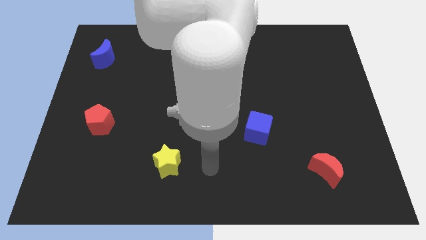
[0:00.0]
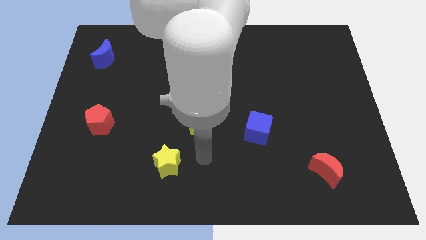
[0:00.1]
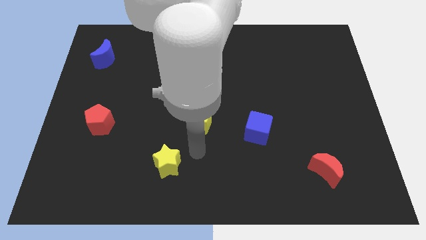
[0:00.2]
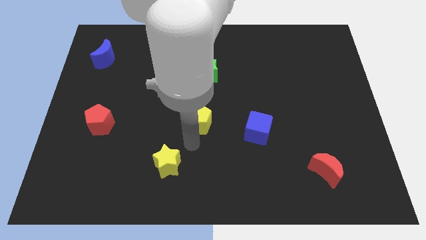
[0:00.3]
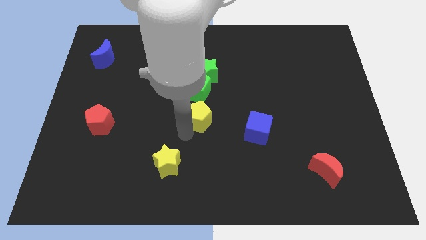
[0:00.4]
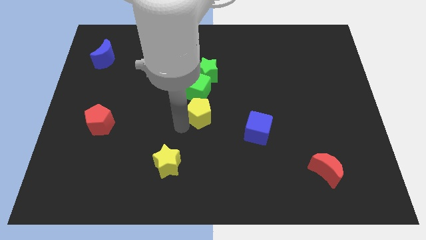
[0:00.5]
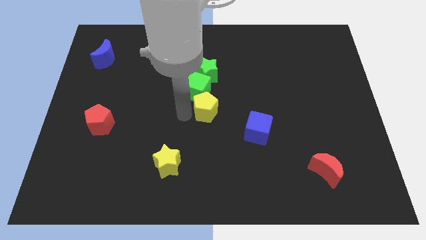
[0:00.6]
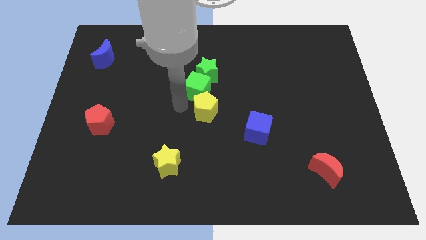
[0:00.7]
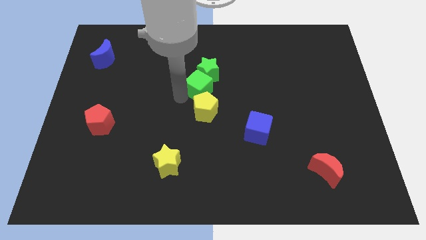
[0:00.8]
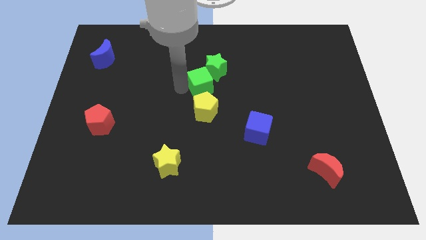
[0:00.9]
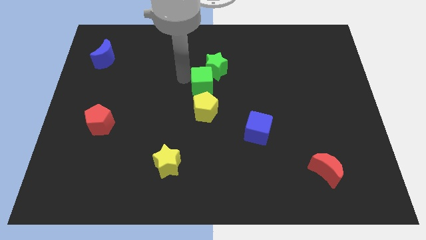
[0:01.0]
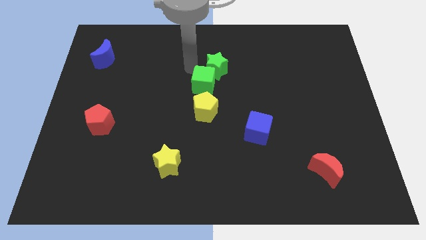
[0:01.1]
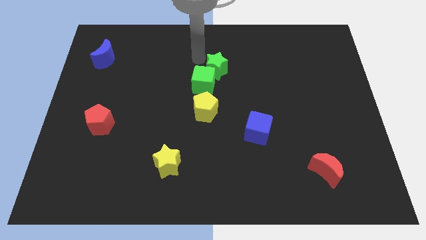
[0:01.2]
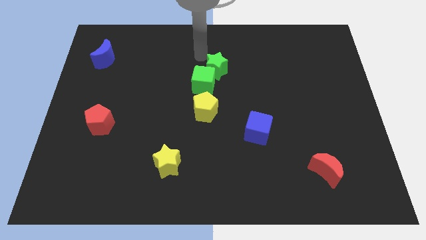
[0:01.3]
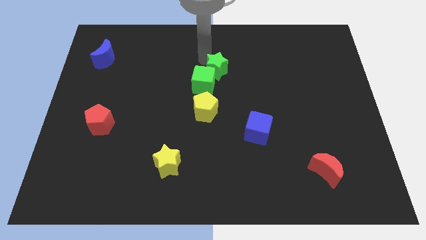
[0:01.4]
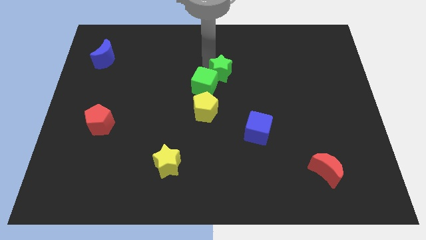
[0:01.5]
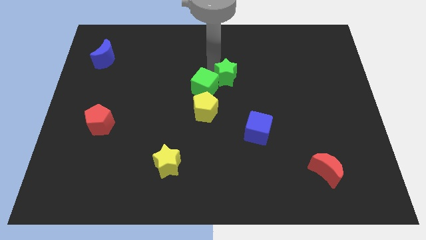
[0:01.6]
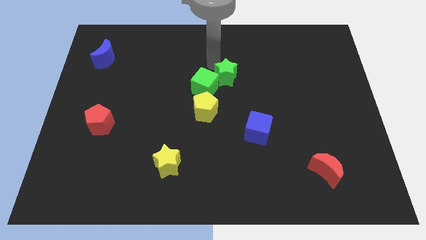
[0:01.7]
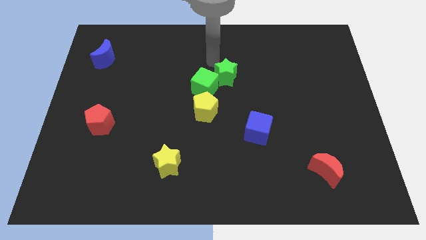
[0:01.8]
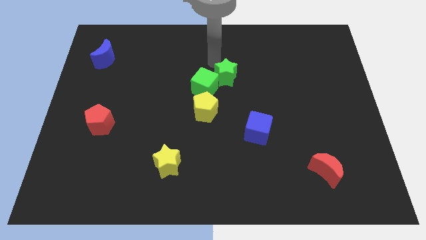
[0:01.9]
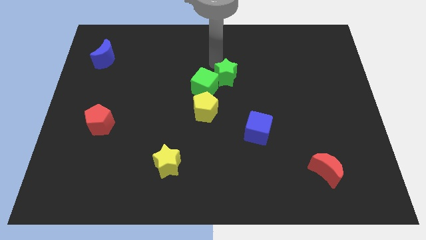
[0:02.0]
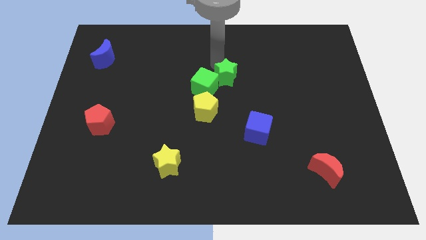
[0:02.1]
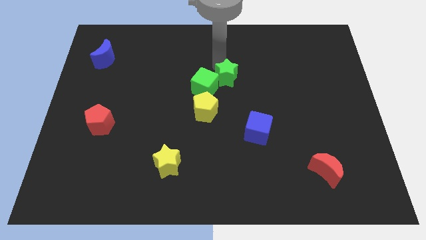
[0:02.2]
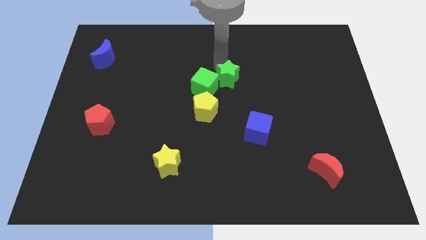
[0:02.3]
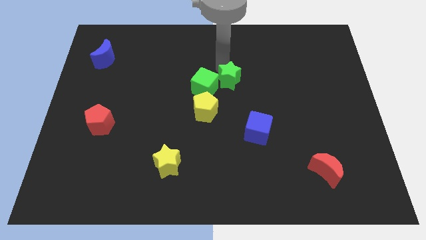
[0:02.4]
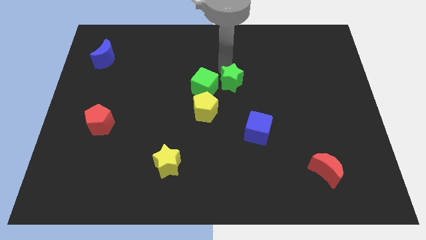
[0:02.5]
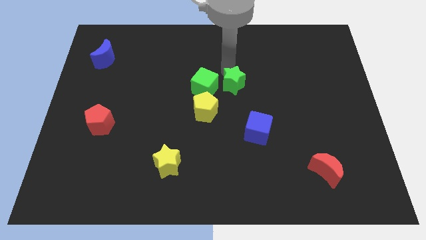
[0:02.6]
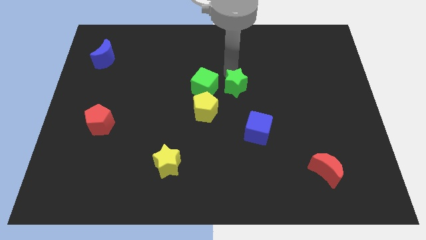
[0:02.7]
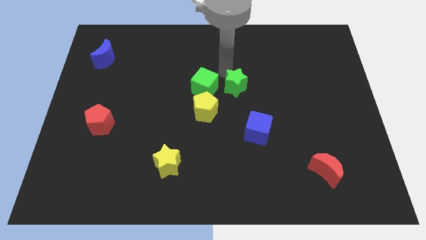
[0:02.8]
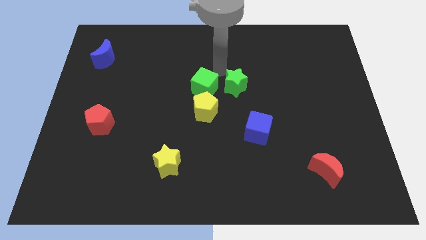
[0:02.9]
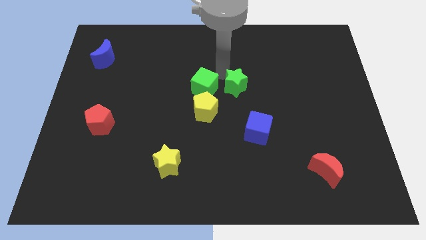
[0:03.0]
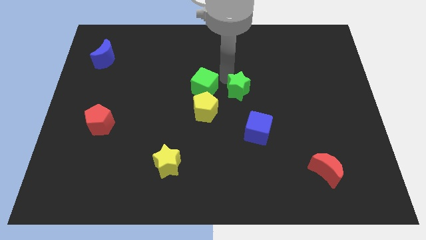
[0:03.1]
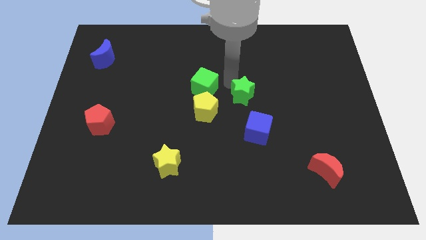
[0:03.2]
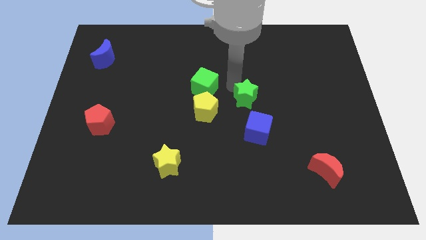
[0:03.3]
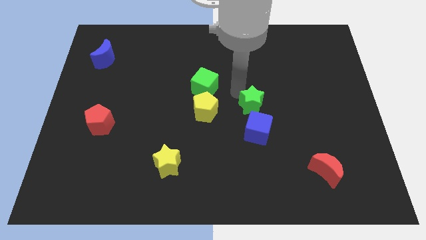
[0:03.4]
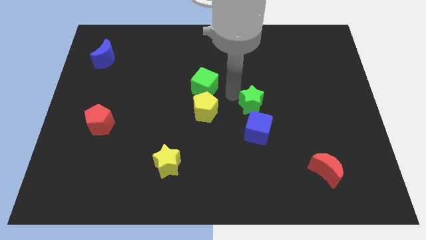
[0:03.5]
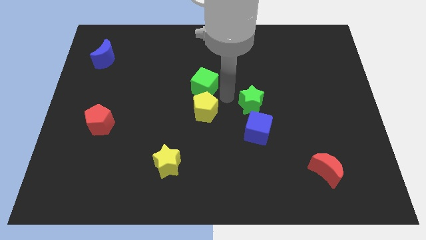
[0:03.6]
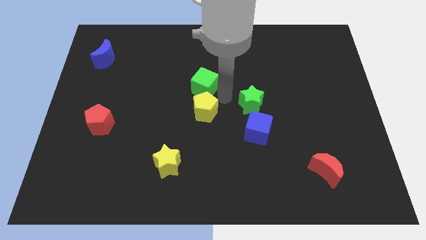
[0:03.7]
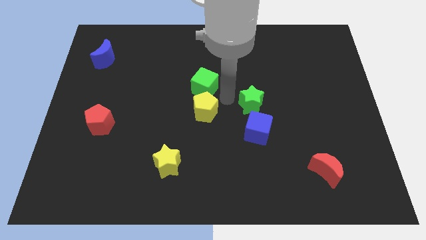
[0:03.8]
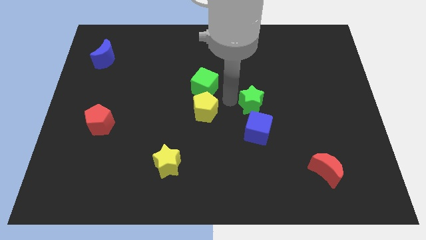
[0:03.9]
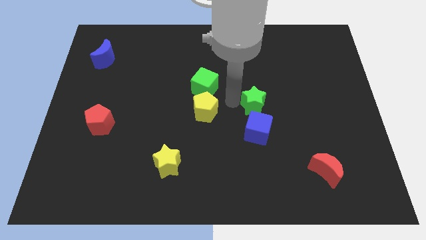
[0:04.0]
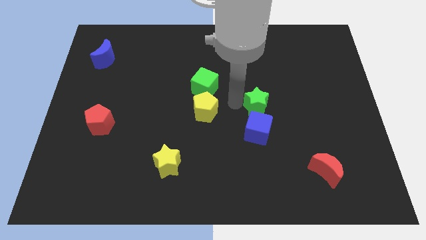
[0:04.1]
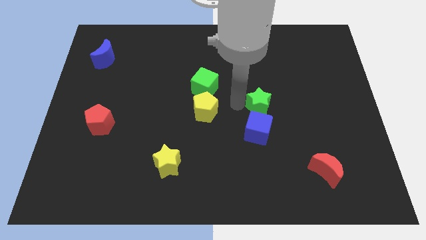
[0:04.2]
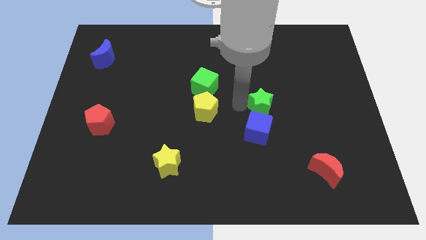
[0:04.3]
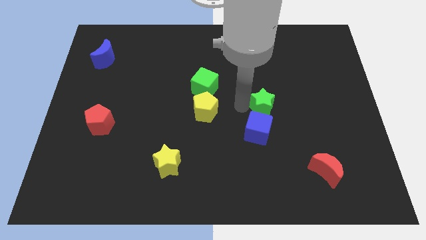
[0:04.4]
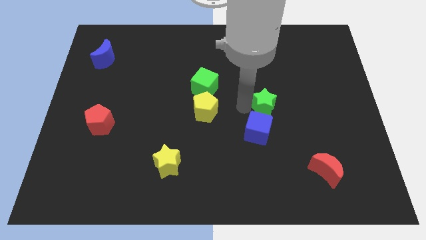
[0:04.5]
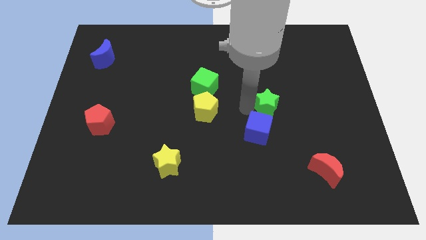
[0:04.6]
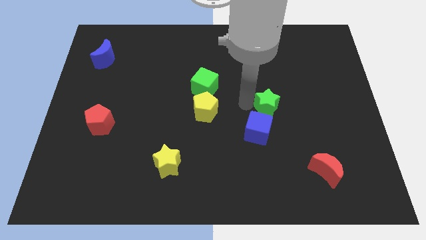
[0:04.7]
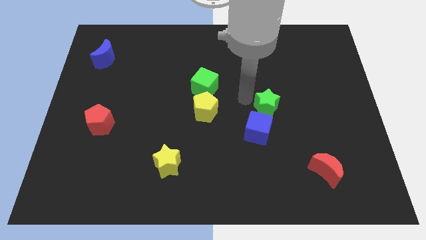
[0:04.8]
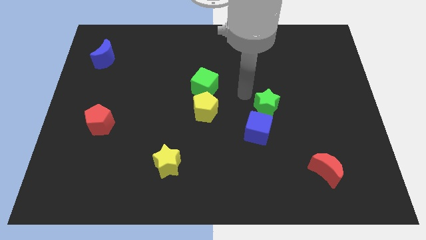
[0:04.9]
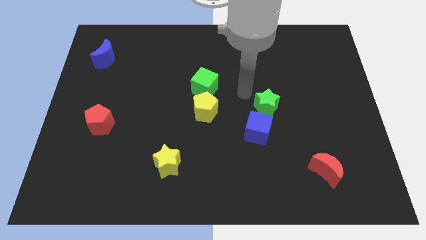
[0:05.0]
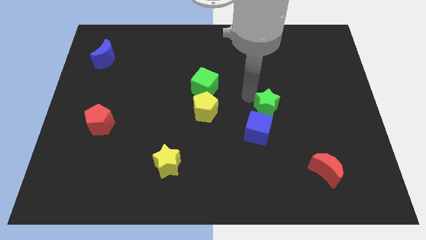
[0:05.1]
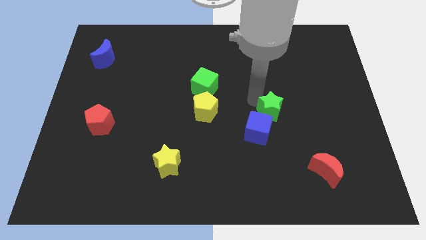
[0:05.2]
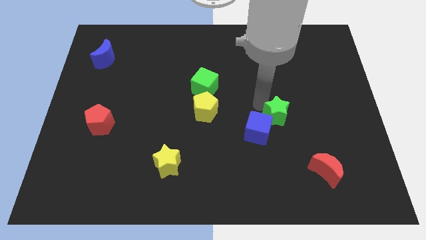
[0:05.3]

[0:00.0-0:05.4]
push the green star diagonally downwards and to the right

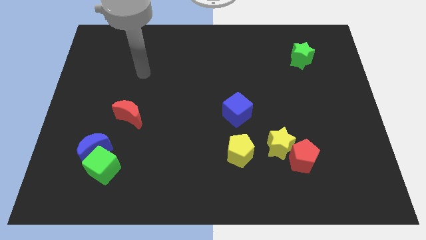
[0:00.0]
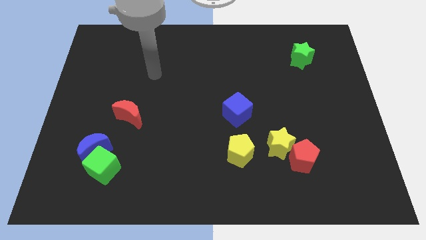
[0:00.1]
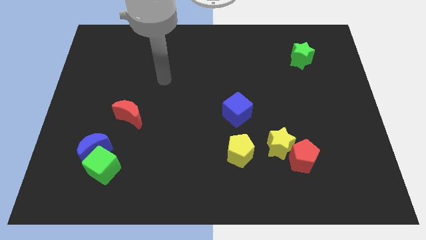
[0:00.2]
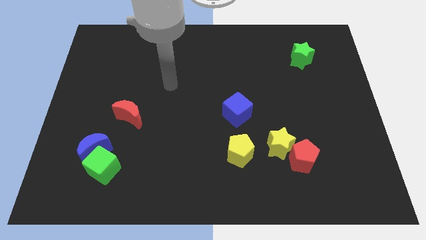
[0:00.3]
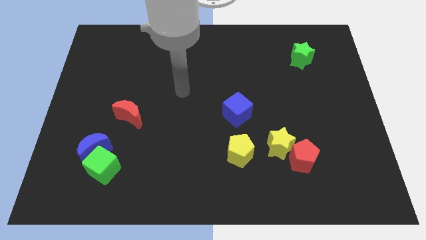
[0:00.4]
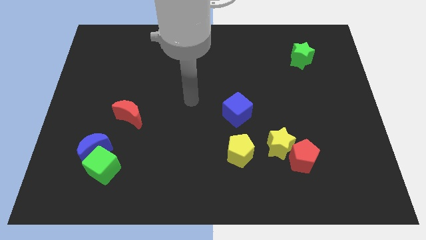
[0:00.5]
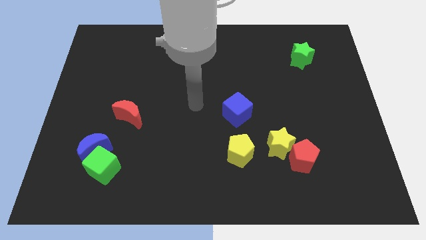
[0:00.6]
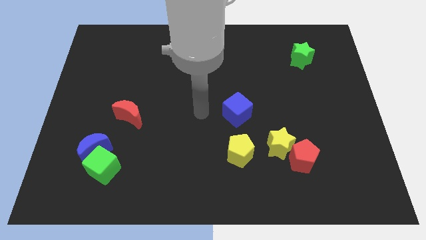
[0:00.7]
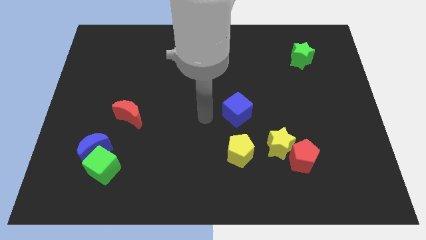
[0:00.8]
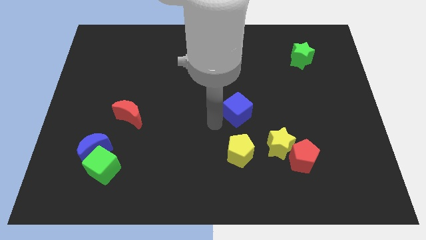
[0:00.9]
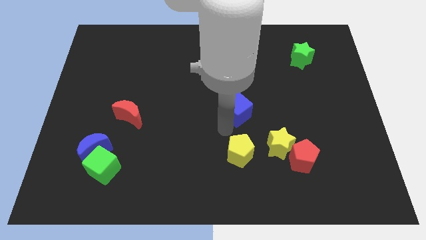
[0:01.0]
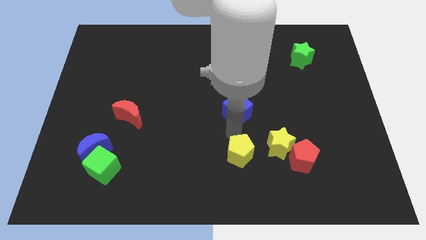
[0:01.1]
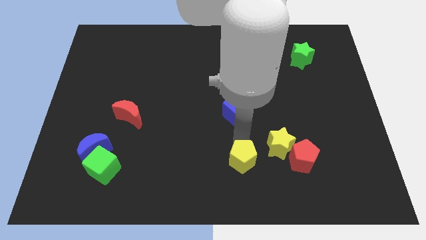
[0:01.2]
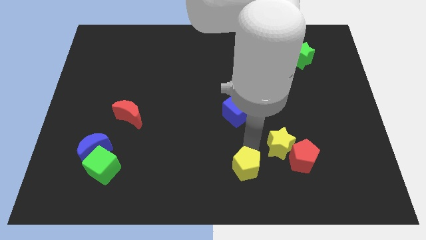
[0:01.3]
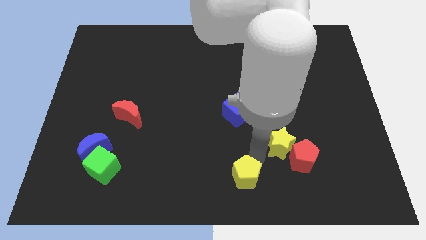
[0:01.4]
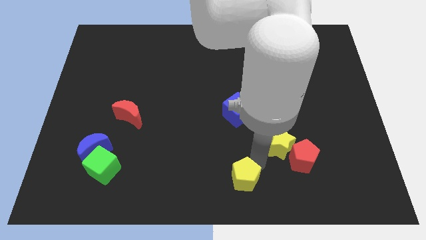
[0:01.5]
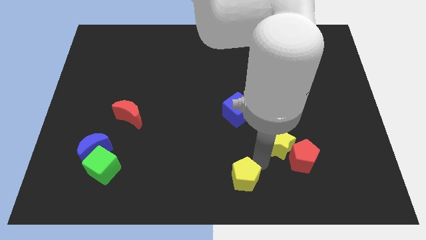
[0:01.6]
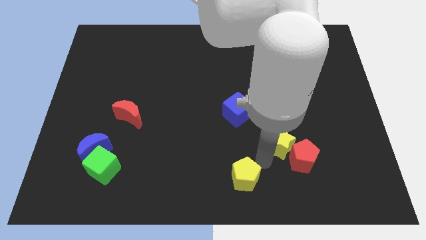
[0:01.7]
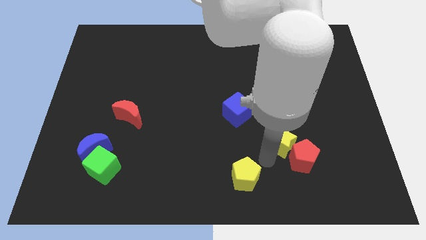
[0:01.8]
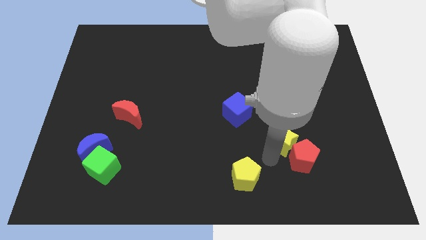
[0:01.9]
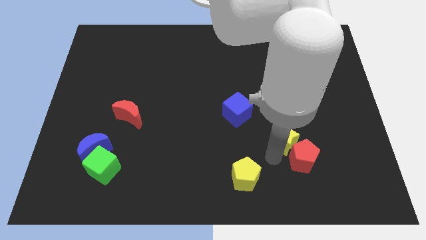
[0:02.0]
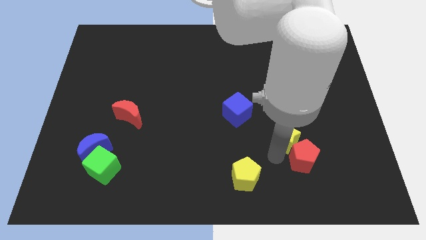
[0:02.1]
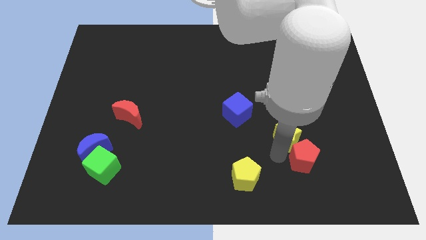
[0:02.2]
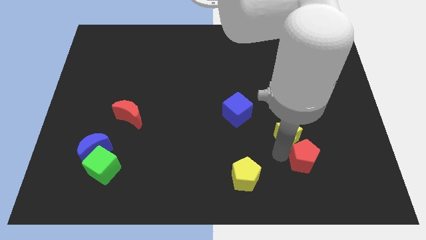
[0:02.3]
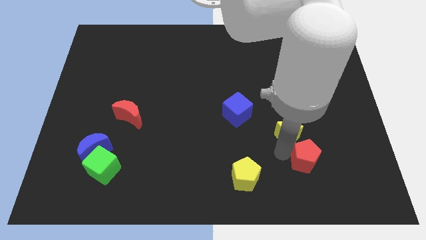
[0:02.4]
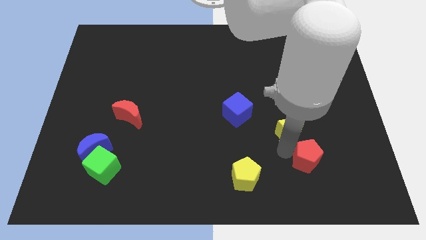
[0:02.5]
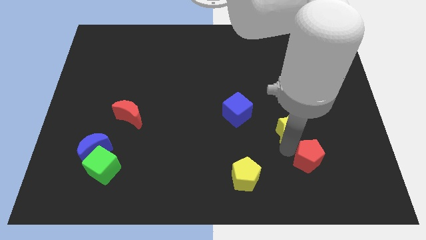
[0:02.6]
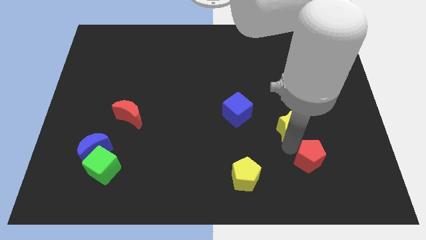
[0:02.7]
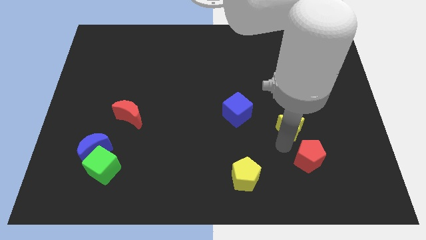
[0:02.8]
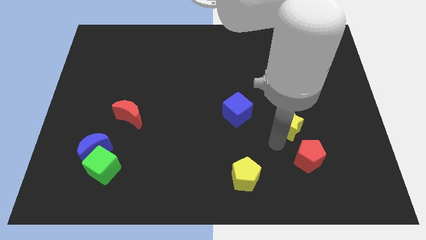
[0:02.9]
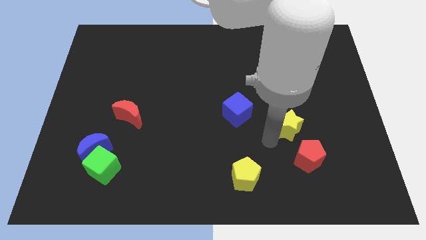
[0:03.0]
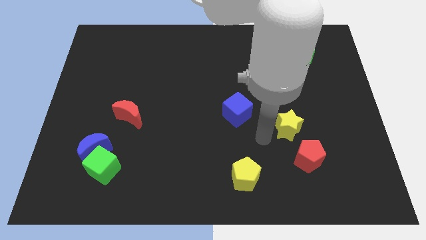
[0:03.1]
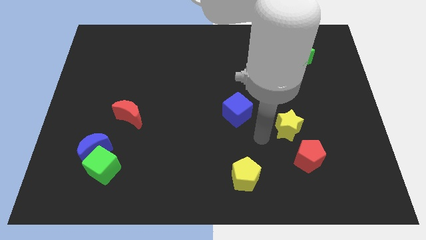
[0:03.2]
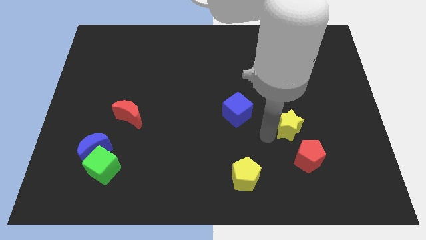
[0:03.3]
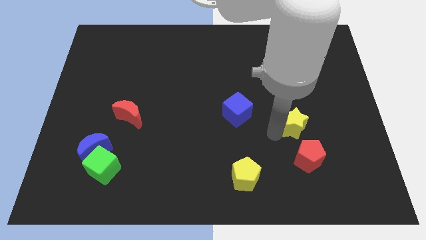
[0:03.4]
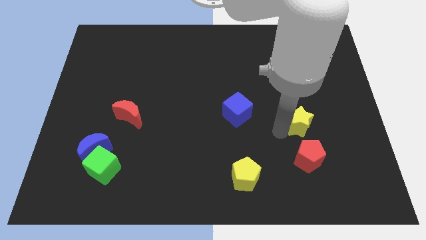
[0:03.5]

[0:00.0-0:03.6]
push the yellow star upwards and to the right diagonally a bit
